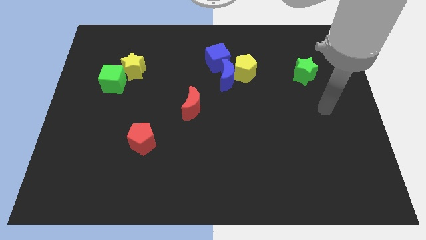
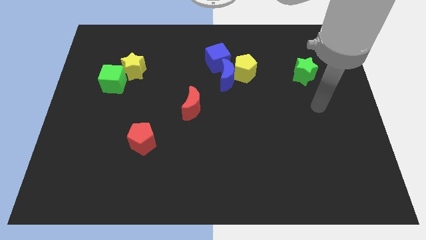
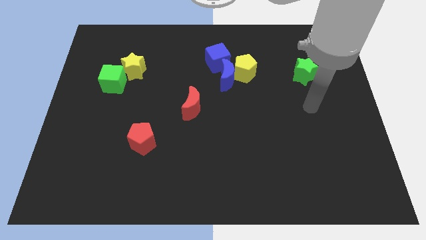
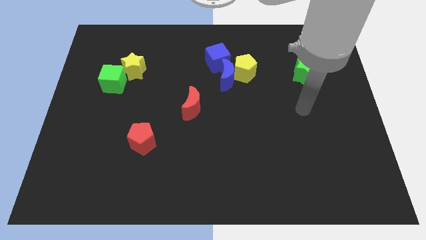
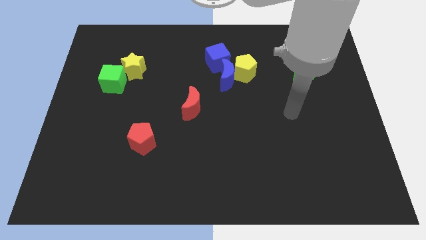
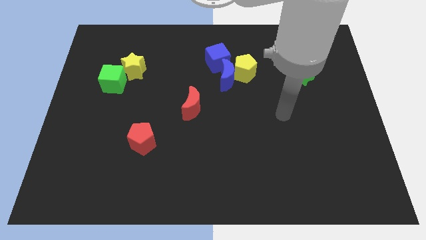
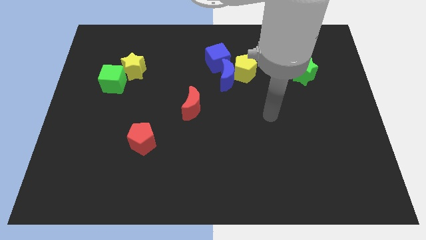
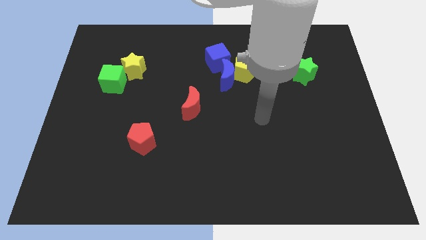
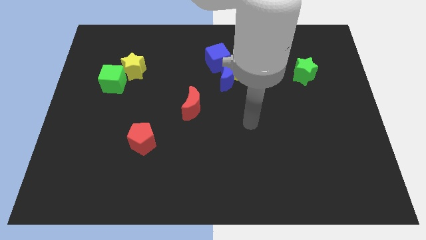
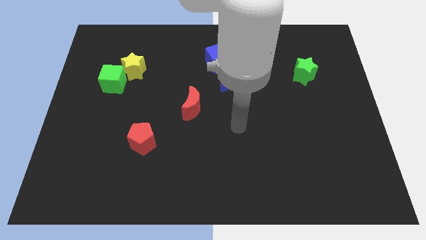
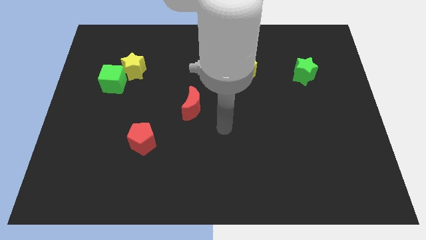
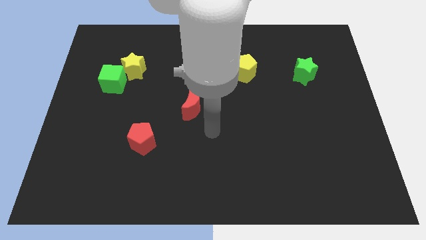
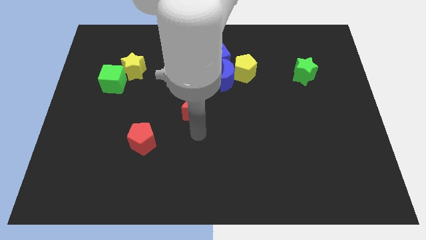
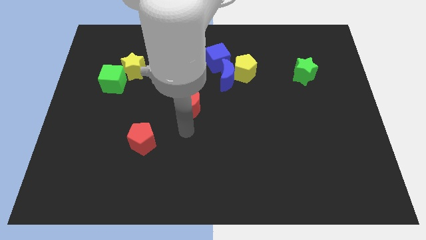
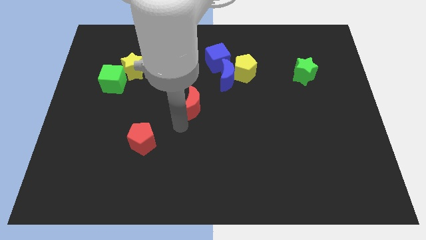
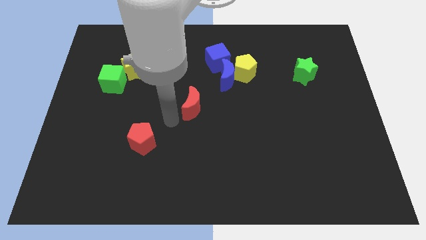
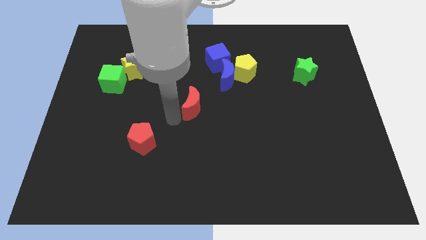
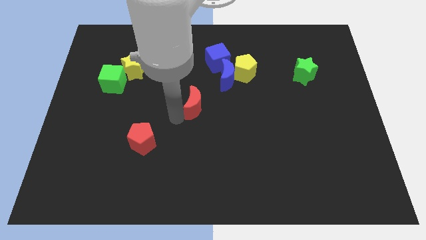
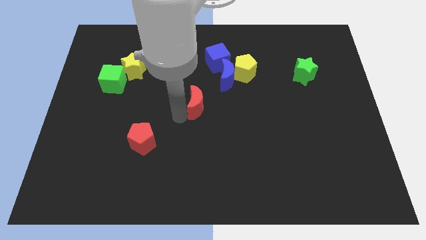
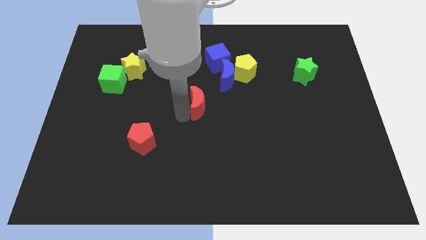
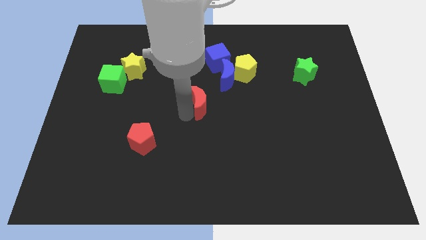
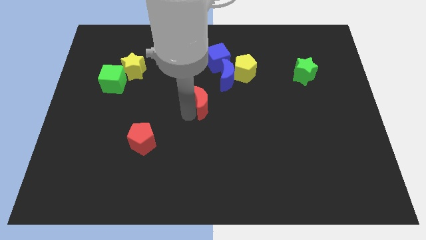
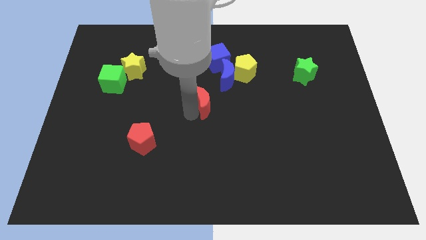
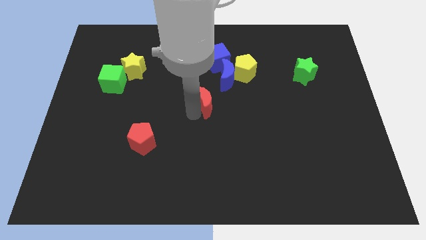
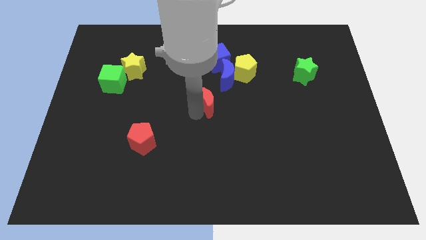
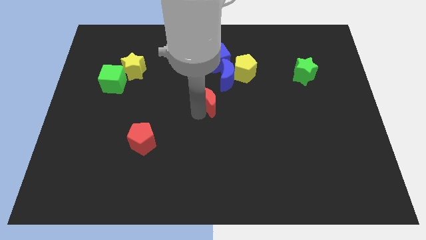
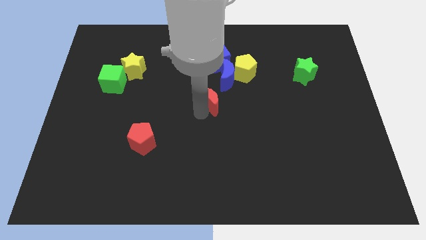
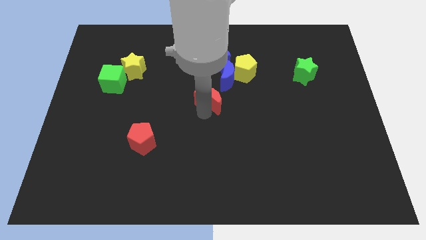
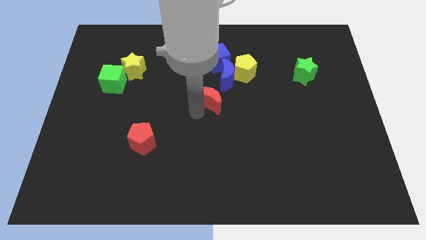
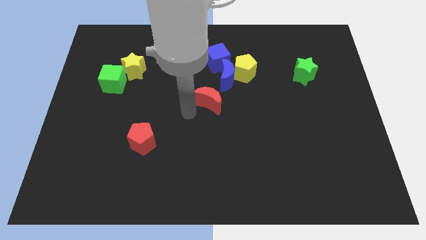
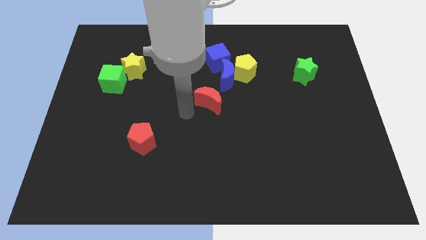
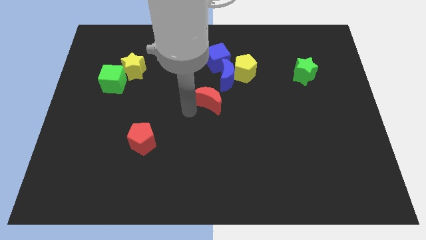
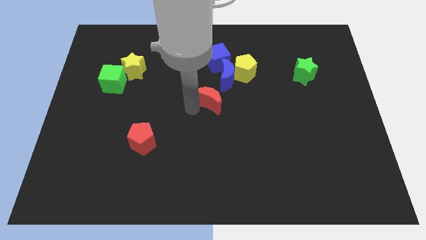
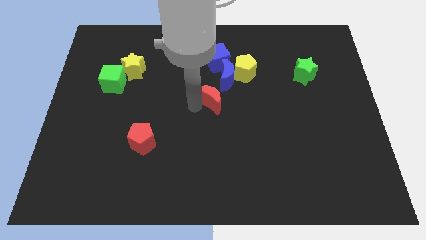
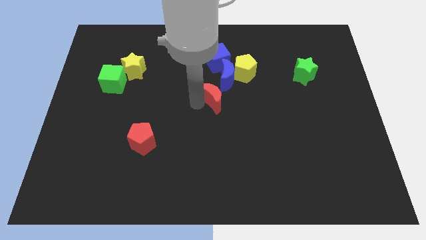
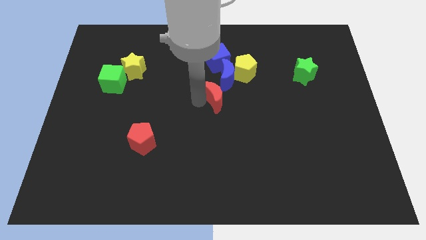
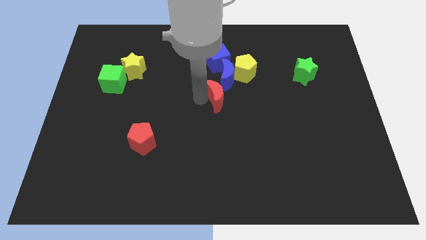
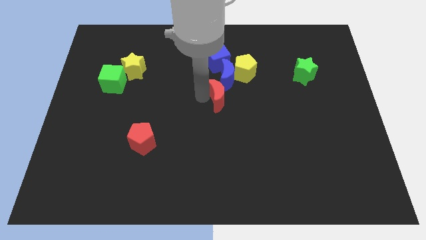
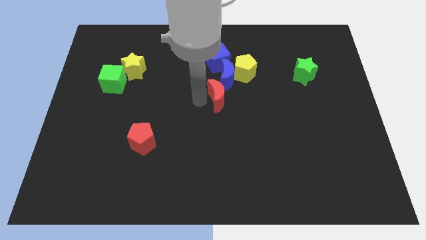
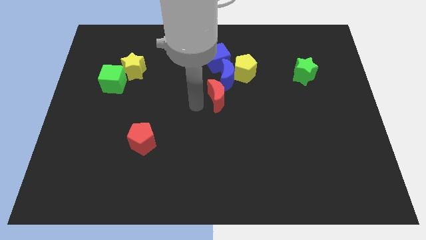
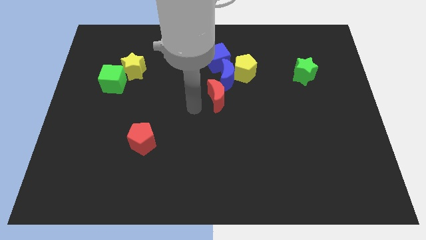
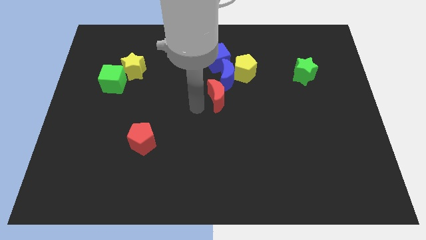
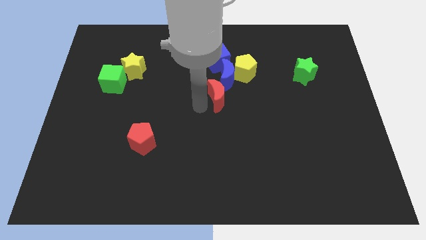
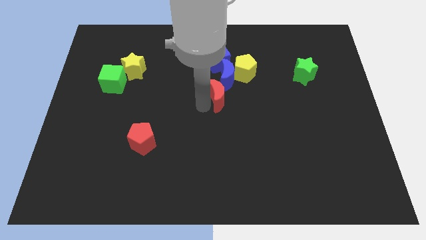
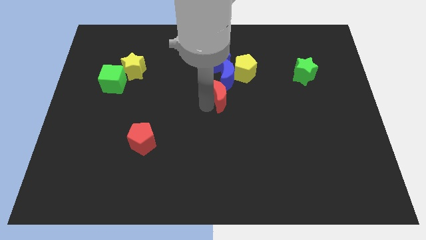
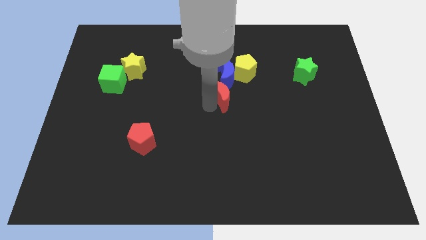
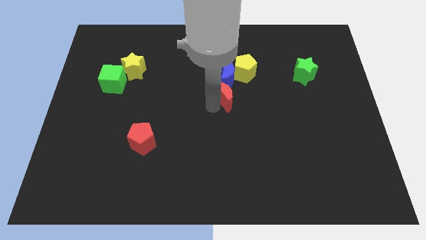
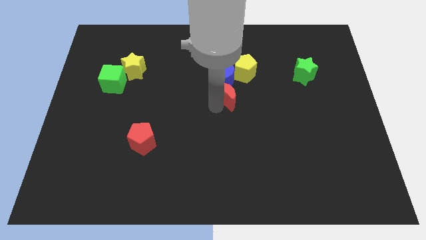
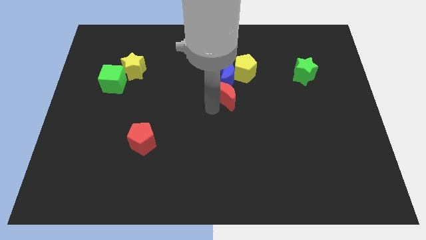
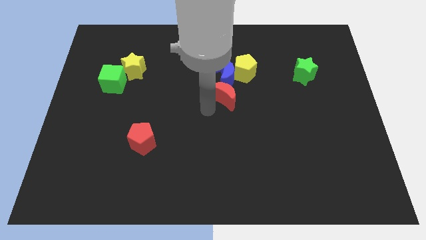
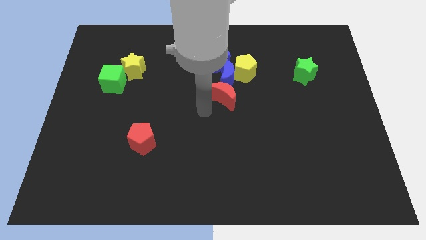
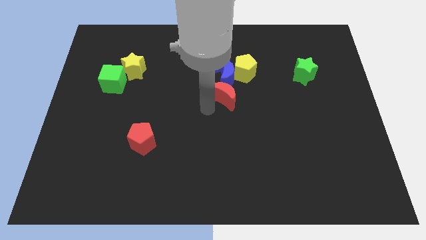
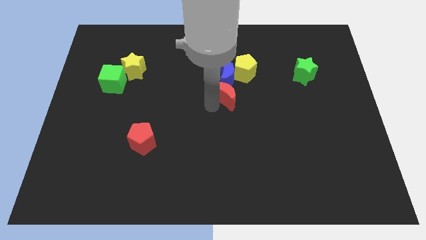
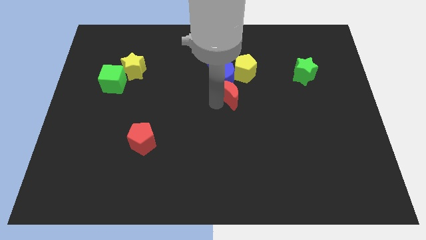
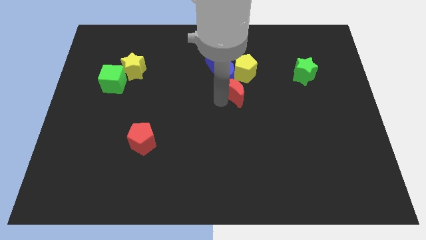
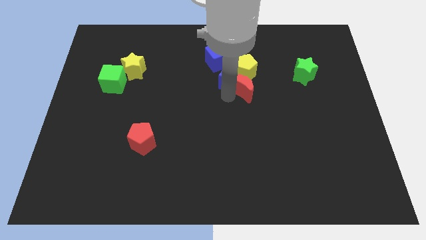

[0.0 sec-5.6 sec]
move the red moon just right of the blue moon

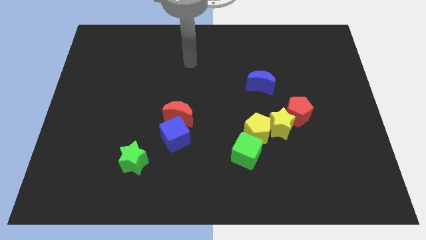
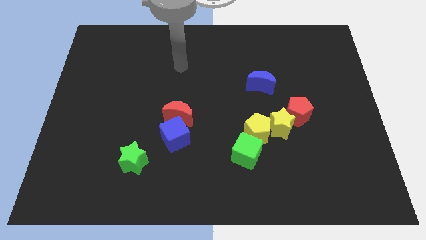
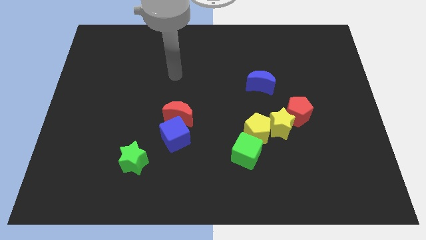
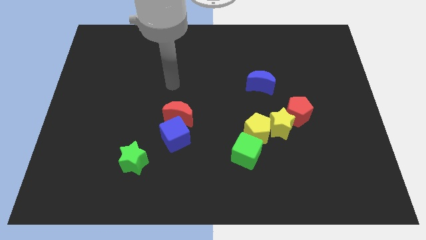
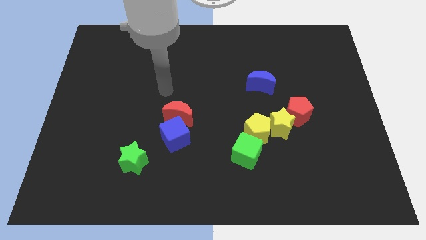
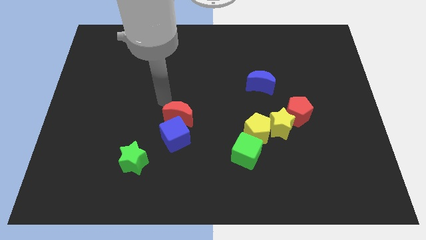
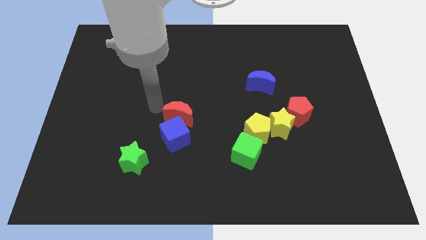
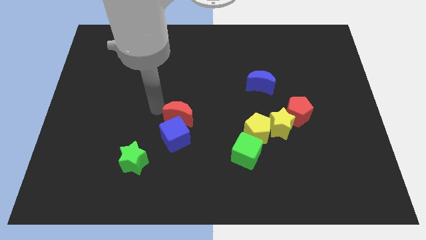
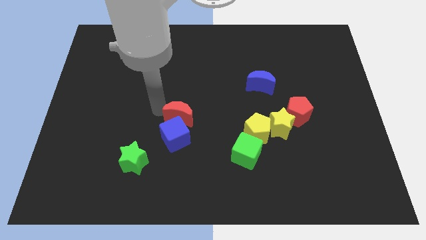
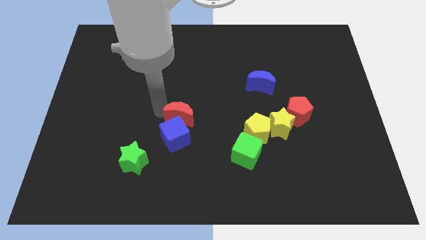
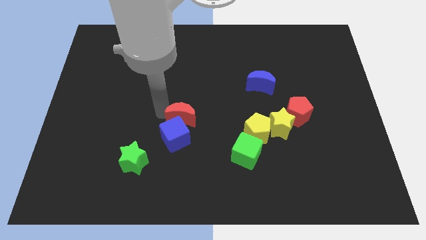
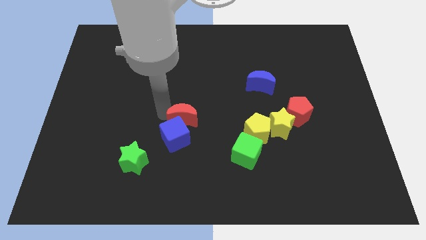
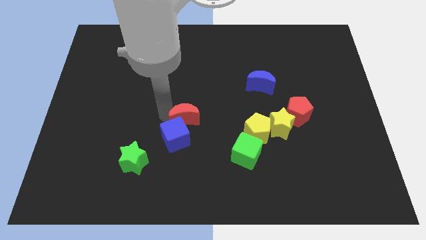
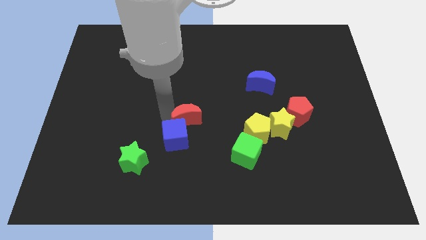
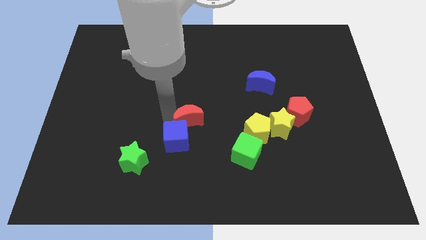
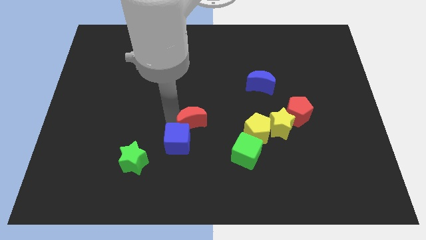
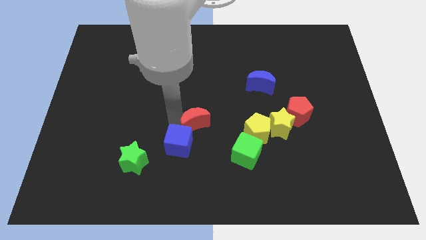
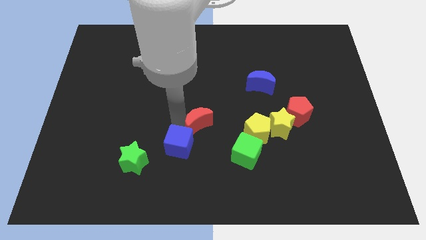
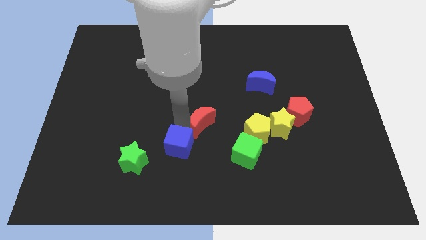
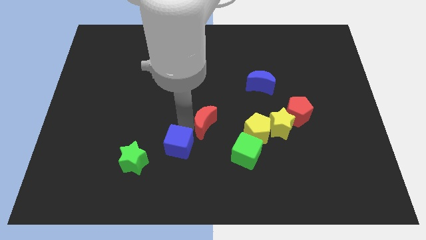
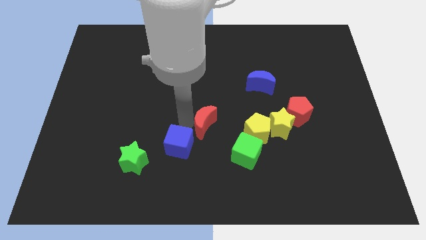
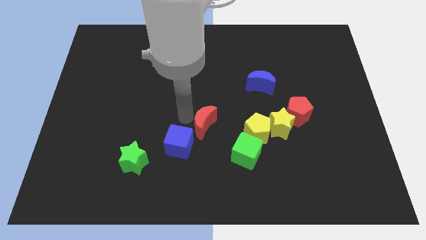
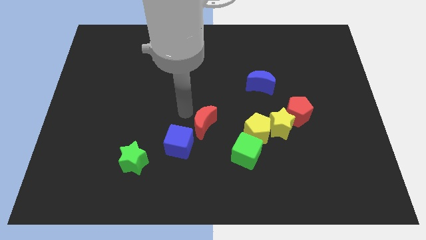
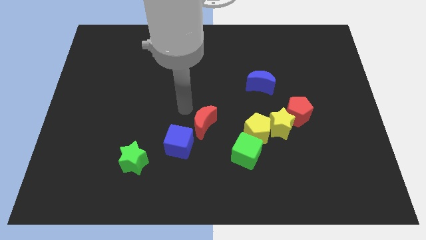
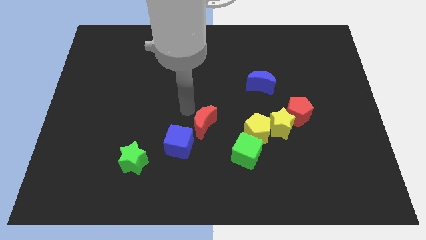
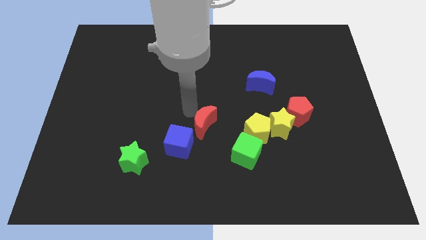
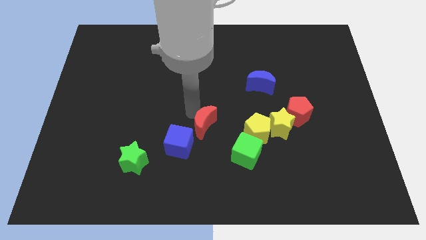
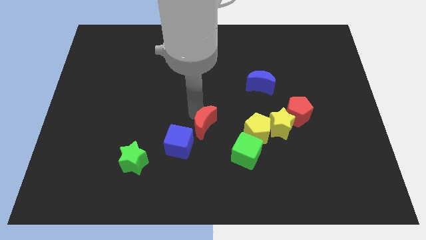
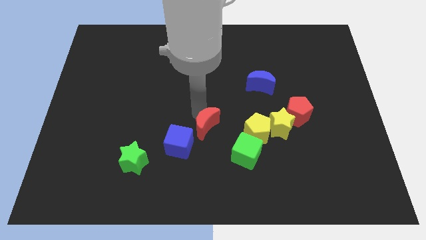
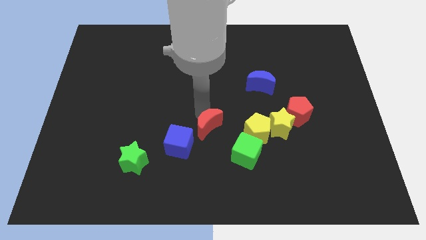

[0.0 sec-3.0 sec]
push the red moon right of the blue cube
